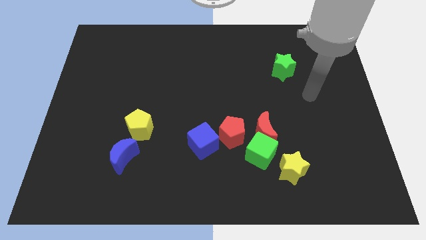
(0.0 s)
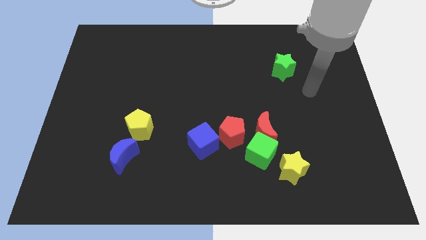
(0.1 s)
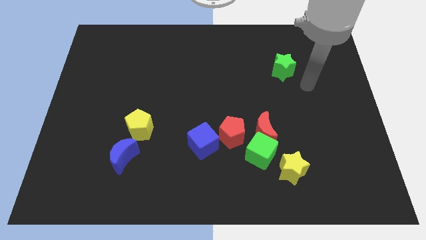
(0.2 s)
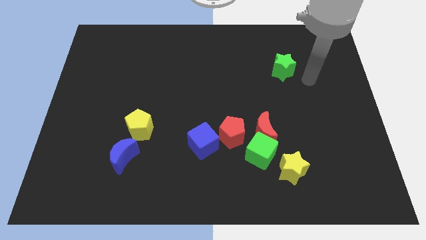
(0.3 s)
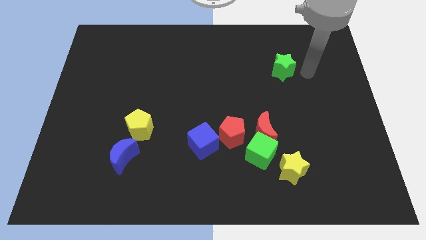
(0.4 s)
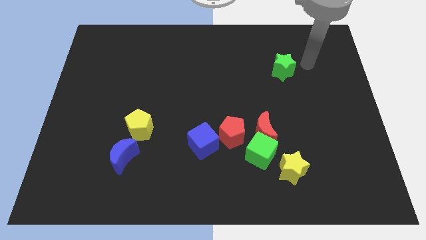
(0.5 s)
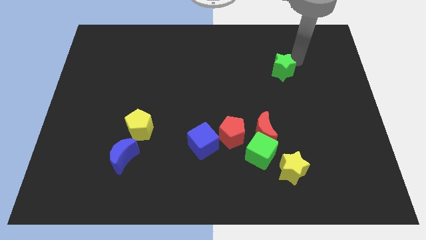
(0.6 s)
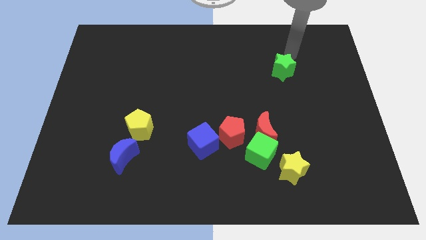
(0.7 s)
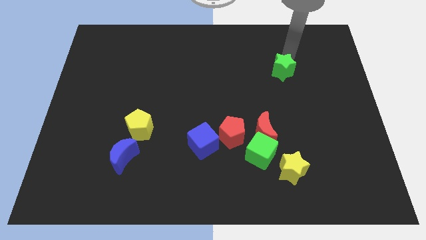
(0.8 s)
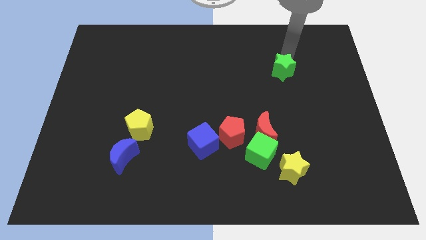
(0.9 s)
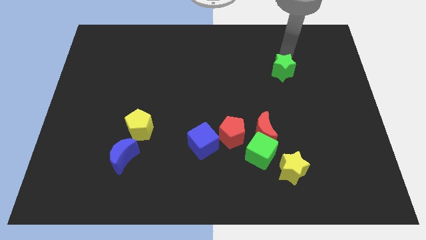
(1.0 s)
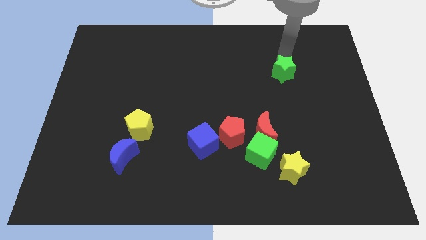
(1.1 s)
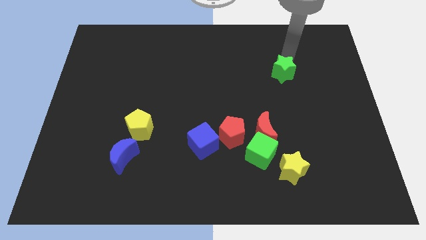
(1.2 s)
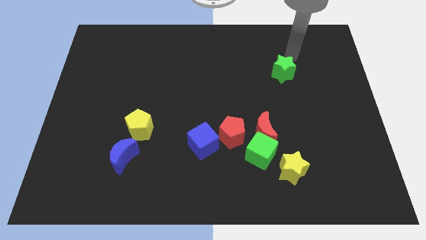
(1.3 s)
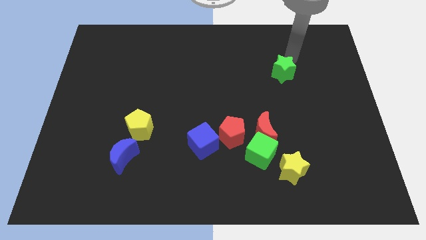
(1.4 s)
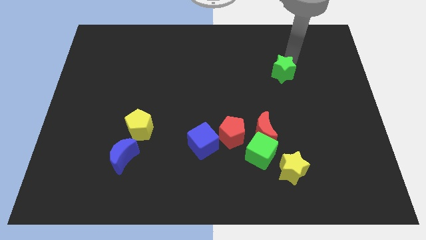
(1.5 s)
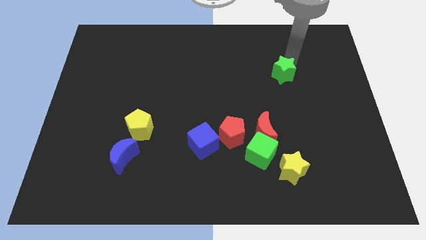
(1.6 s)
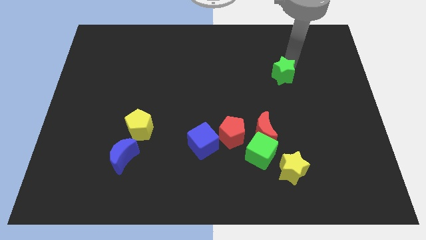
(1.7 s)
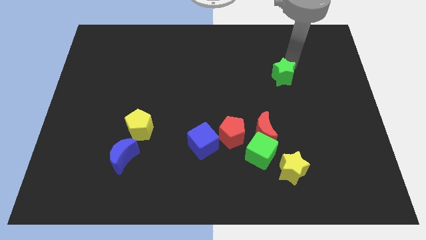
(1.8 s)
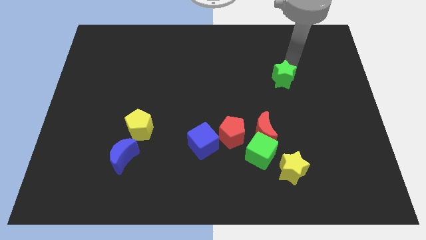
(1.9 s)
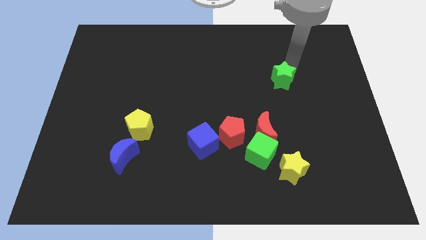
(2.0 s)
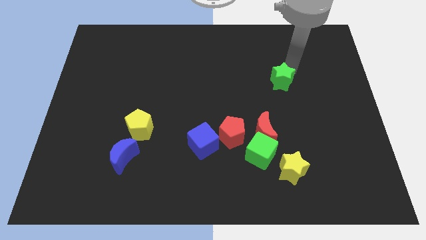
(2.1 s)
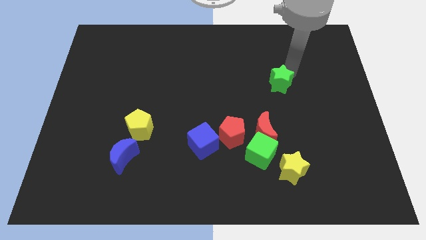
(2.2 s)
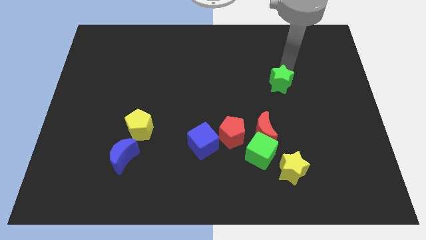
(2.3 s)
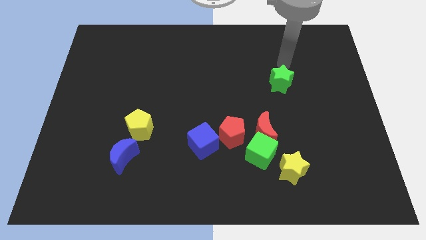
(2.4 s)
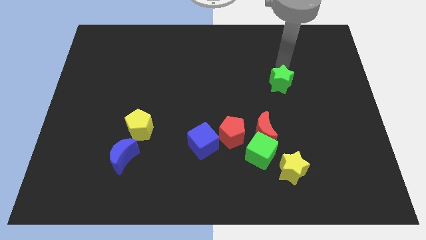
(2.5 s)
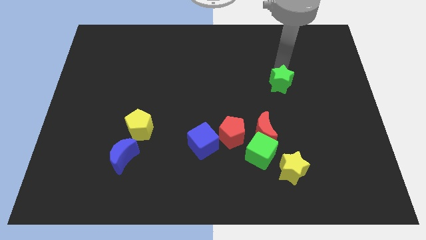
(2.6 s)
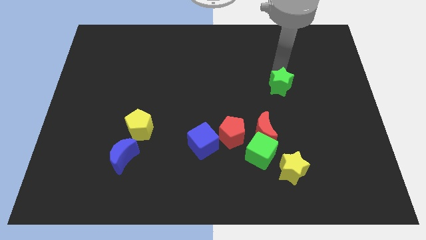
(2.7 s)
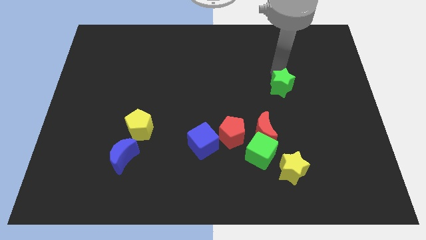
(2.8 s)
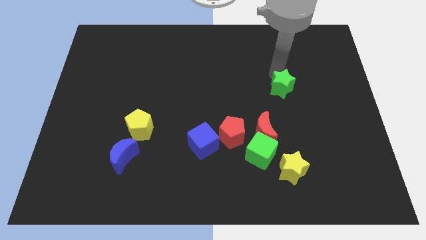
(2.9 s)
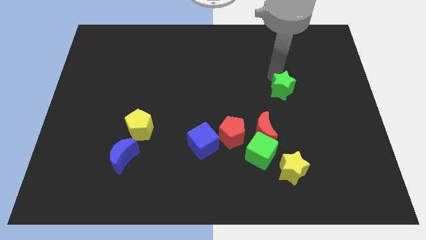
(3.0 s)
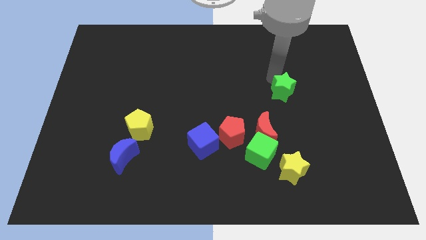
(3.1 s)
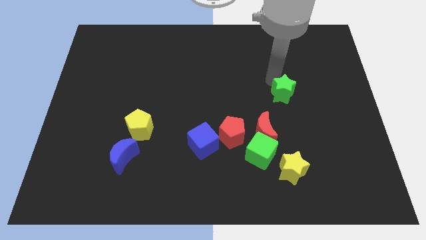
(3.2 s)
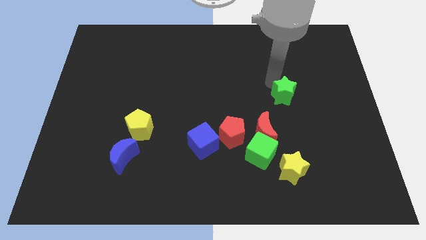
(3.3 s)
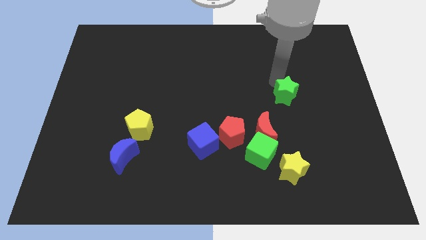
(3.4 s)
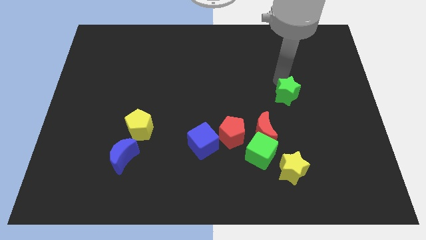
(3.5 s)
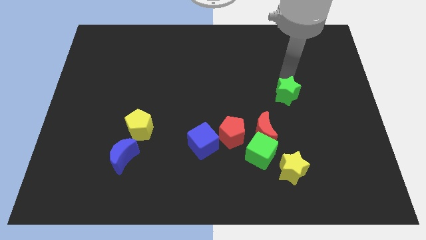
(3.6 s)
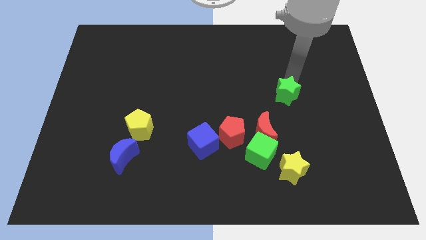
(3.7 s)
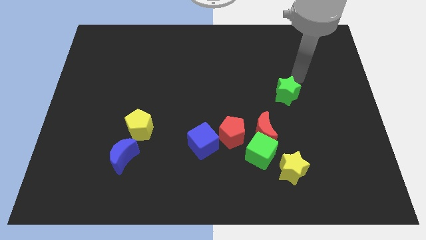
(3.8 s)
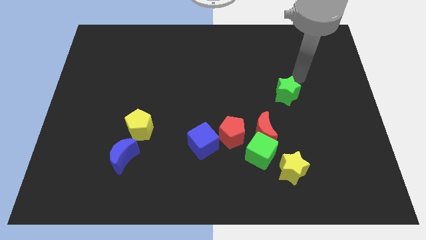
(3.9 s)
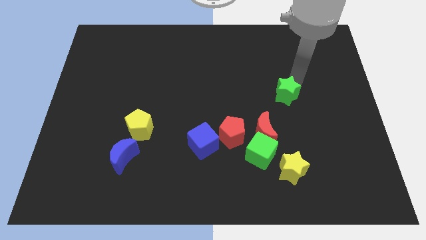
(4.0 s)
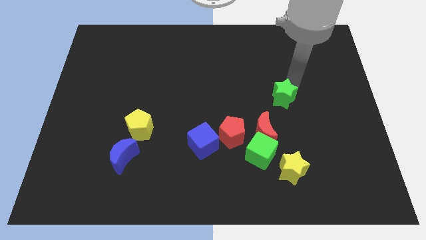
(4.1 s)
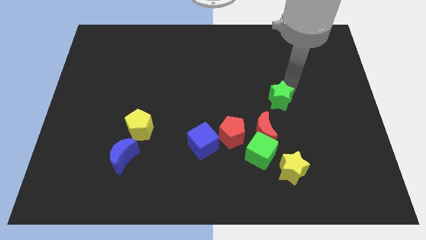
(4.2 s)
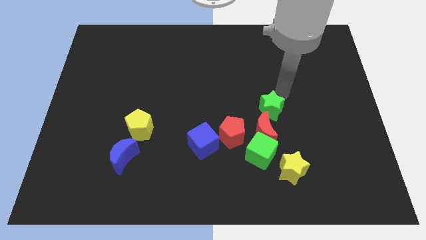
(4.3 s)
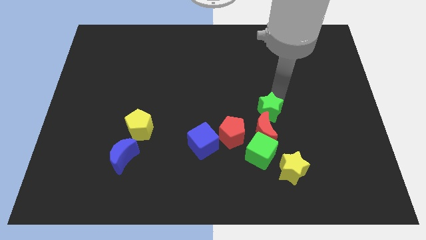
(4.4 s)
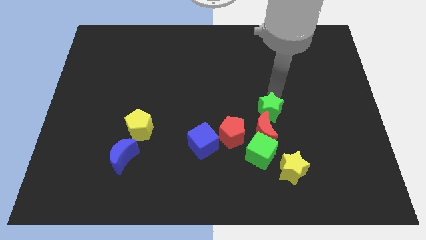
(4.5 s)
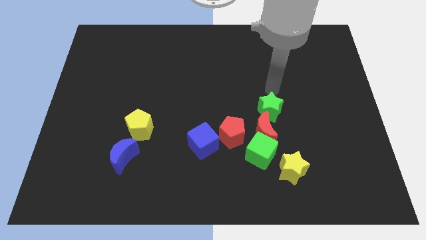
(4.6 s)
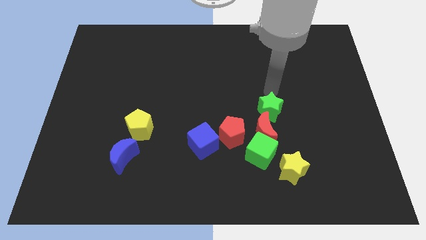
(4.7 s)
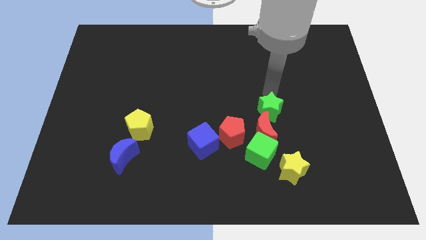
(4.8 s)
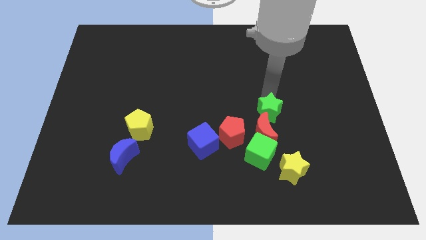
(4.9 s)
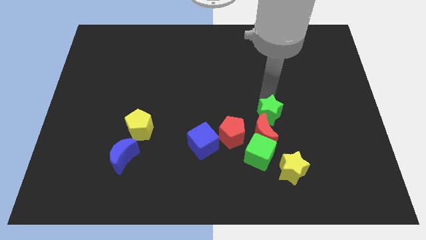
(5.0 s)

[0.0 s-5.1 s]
push the green star next to the red moon

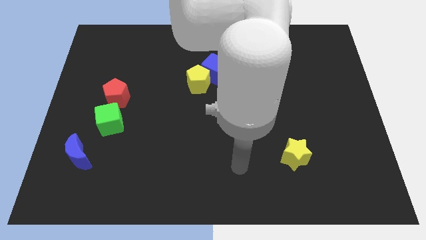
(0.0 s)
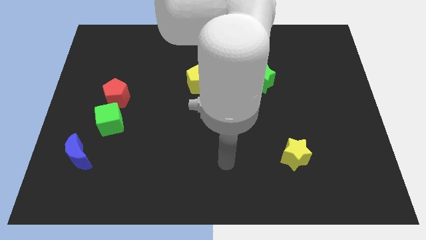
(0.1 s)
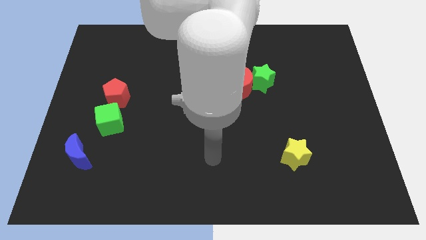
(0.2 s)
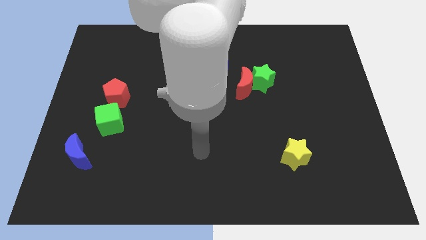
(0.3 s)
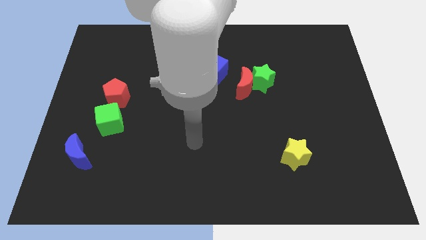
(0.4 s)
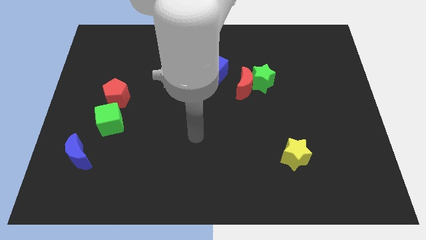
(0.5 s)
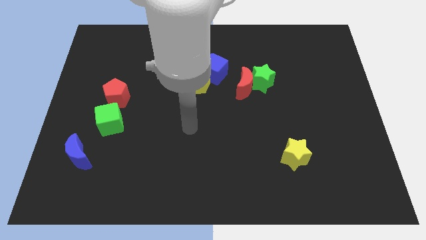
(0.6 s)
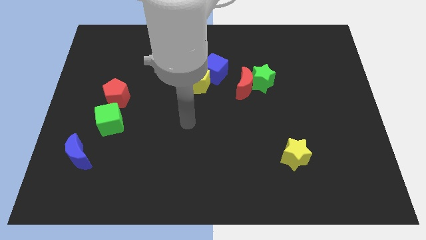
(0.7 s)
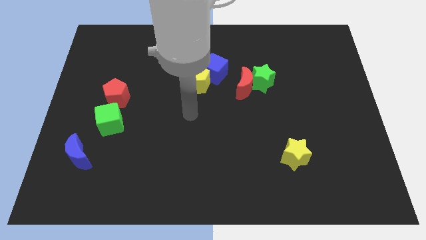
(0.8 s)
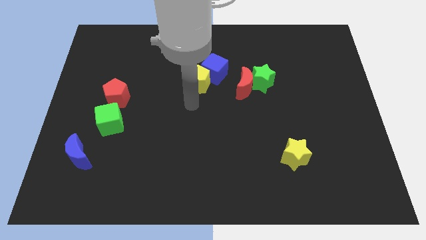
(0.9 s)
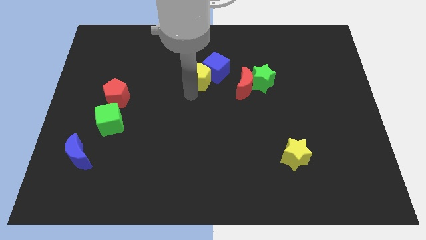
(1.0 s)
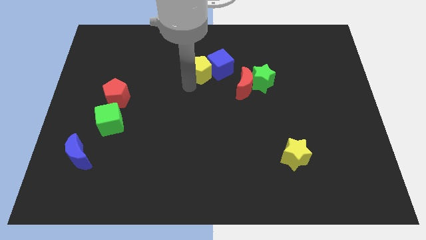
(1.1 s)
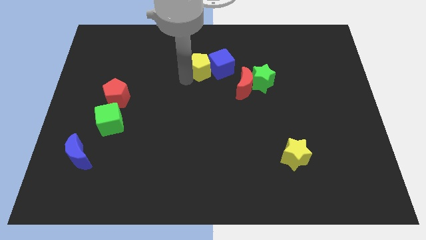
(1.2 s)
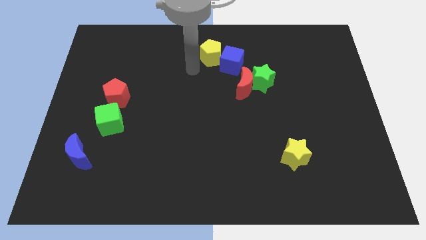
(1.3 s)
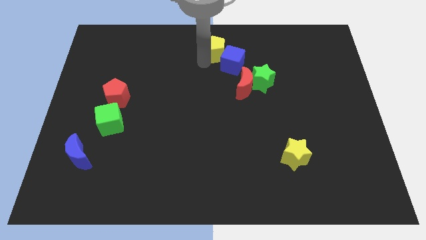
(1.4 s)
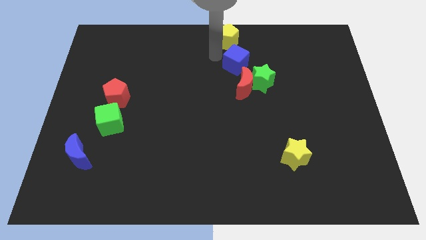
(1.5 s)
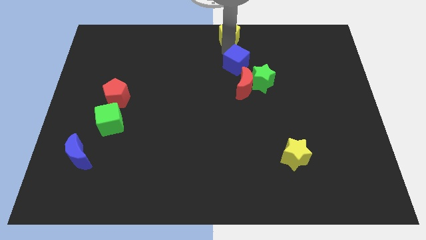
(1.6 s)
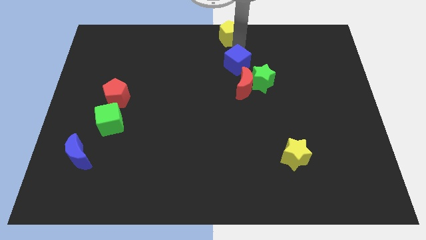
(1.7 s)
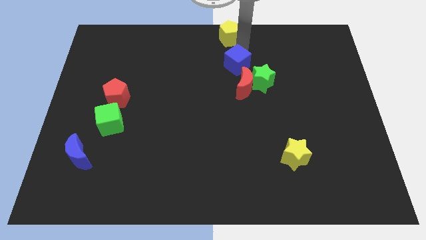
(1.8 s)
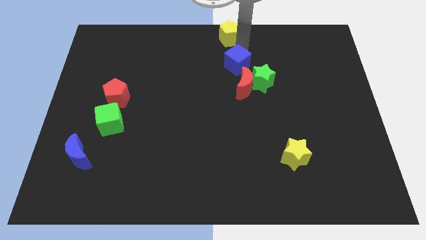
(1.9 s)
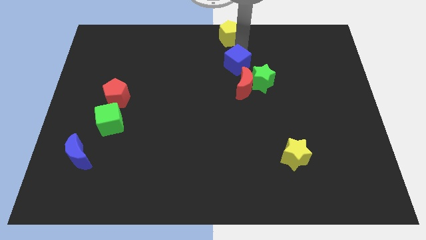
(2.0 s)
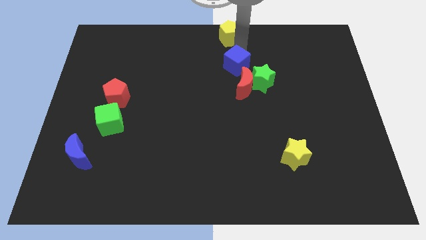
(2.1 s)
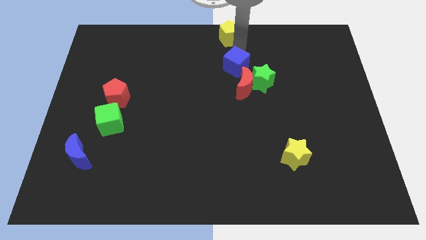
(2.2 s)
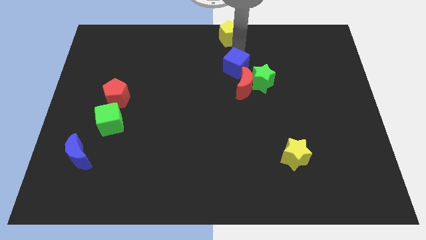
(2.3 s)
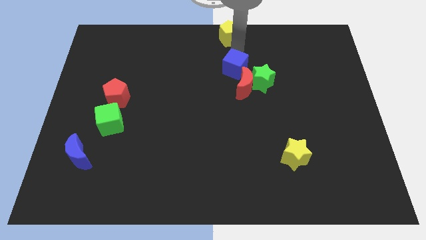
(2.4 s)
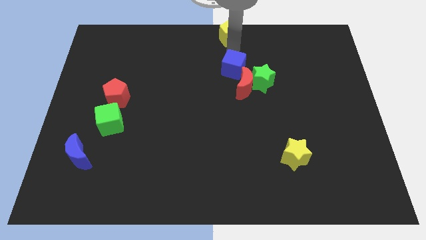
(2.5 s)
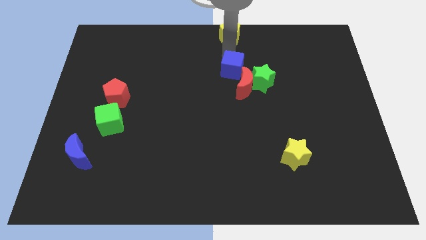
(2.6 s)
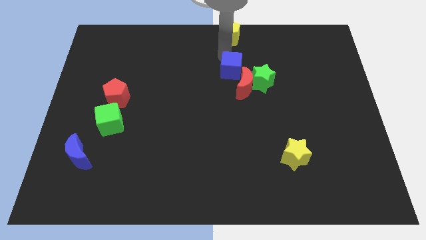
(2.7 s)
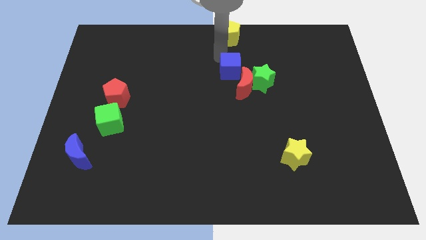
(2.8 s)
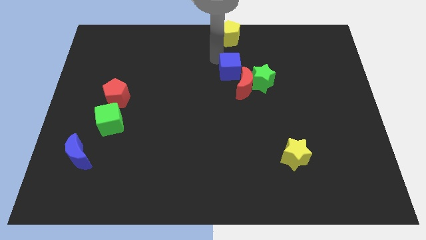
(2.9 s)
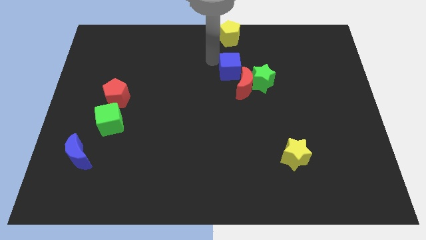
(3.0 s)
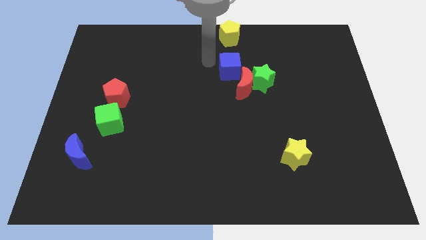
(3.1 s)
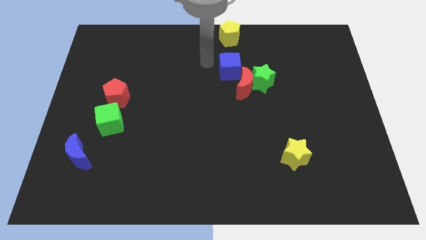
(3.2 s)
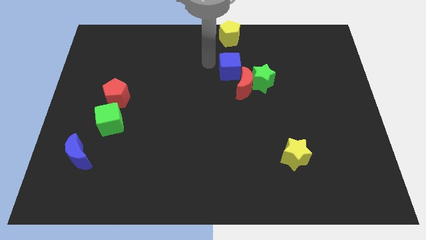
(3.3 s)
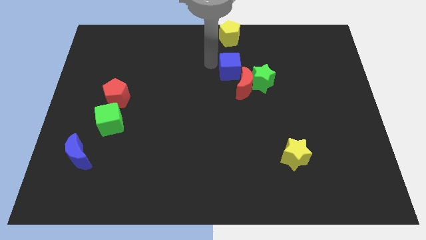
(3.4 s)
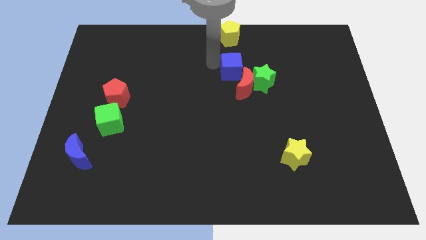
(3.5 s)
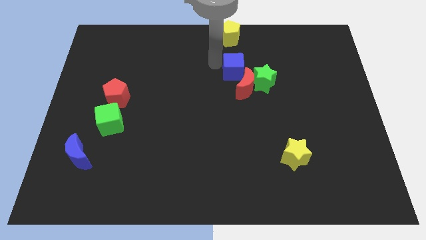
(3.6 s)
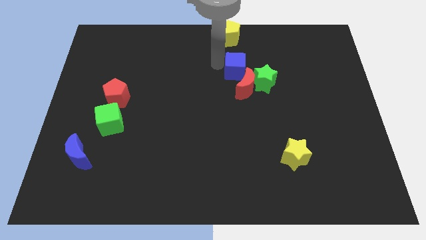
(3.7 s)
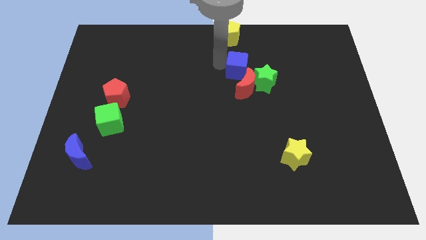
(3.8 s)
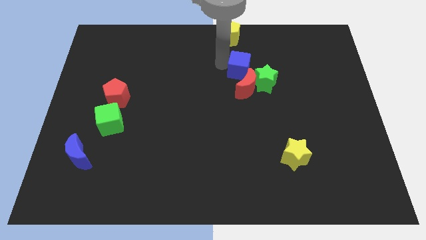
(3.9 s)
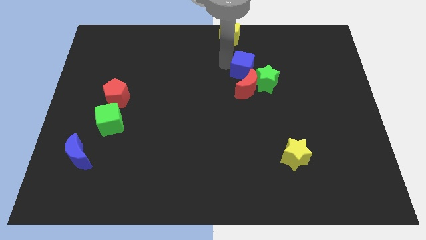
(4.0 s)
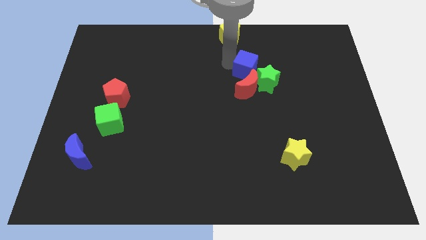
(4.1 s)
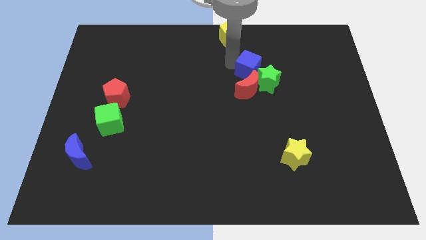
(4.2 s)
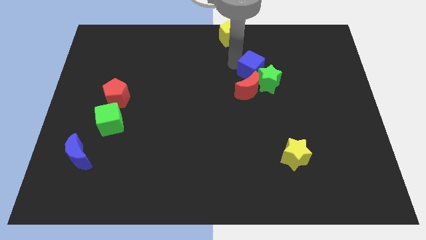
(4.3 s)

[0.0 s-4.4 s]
move the blue cube close to the green star
